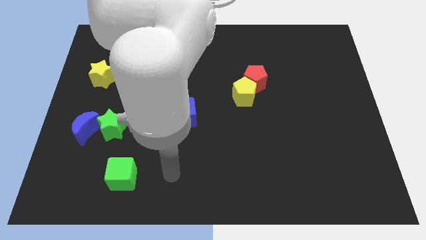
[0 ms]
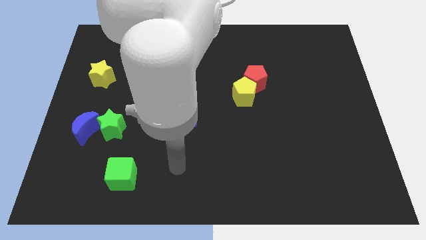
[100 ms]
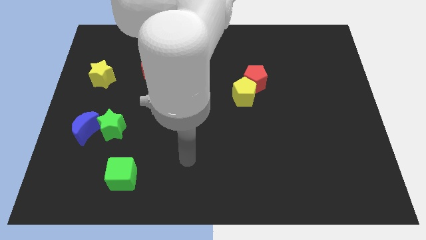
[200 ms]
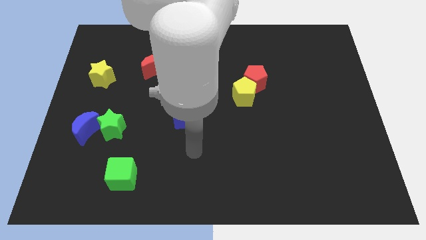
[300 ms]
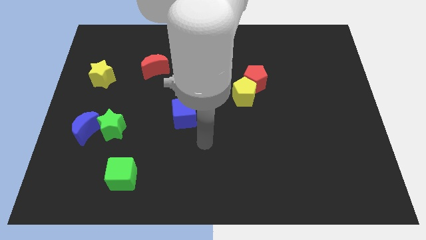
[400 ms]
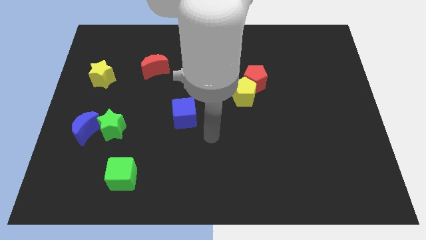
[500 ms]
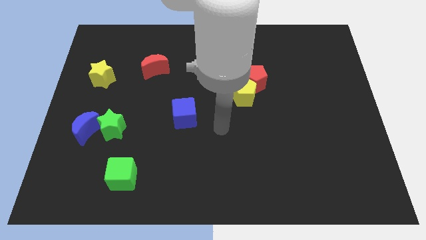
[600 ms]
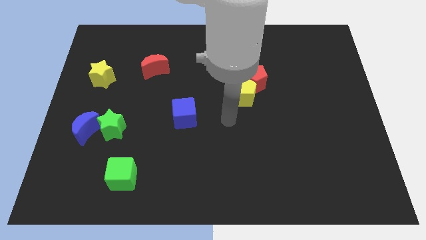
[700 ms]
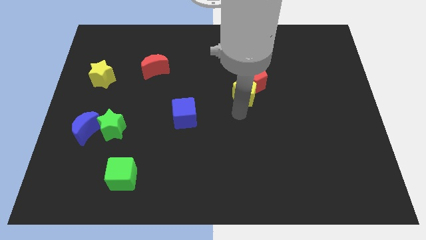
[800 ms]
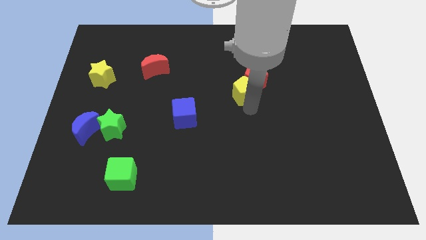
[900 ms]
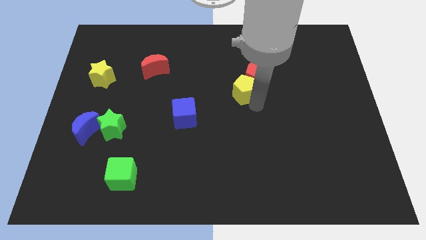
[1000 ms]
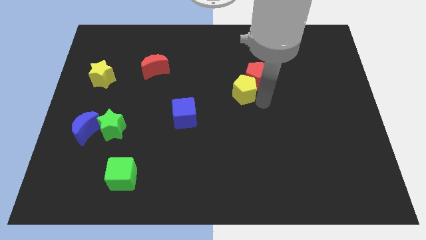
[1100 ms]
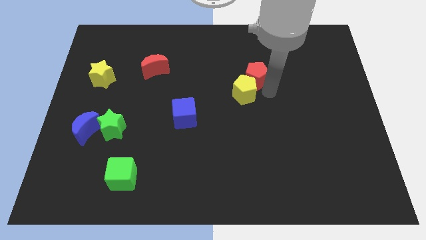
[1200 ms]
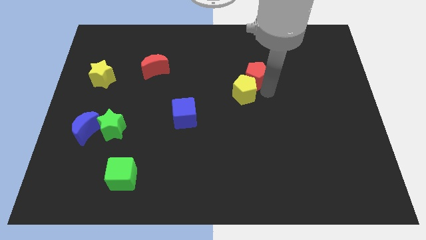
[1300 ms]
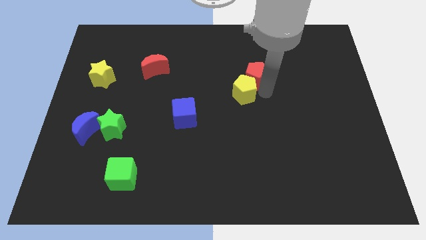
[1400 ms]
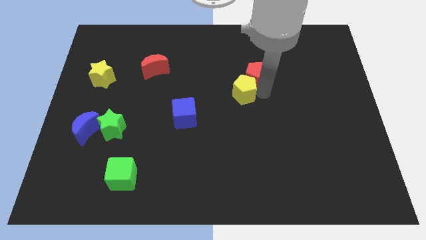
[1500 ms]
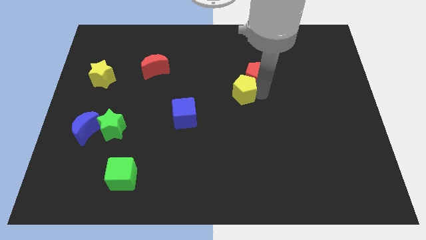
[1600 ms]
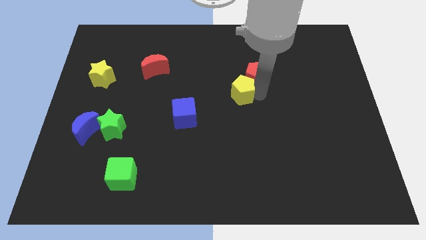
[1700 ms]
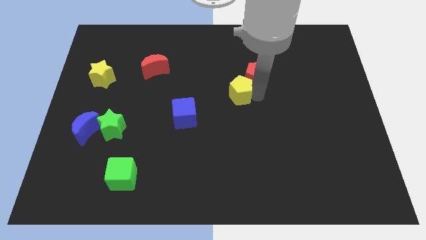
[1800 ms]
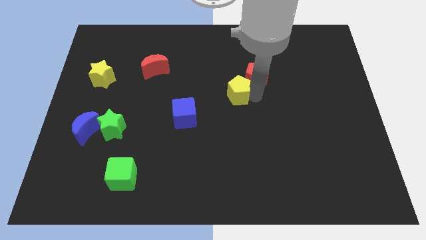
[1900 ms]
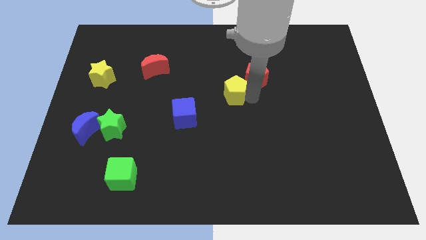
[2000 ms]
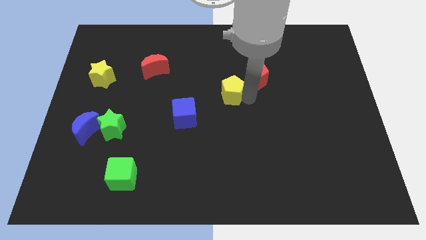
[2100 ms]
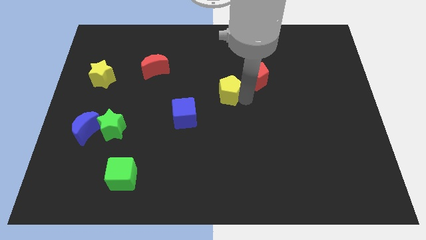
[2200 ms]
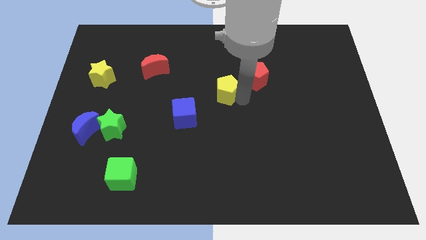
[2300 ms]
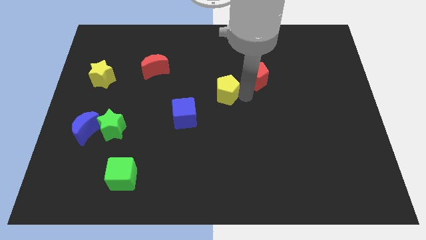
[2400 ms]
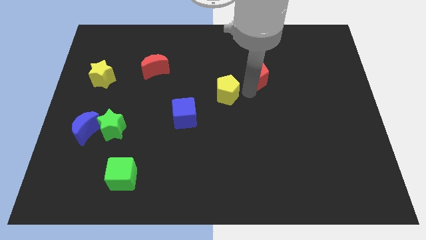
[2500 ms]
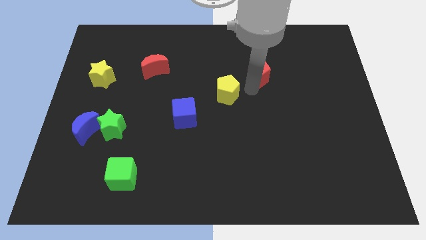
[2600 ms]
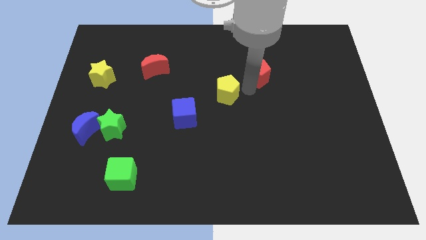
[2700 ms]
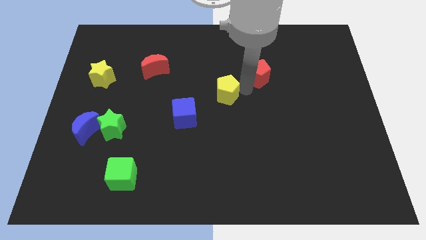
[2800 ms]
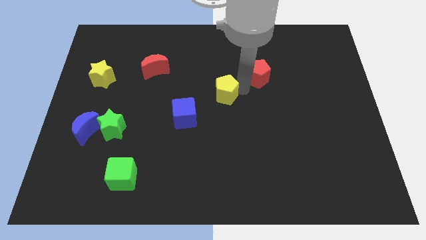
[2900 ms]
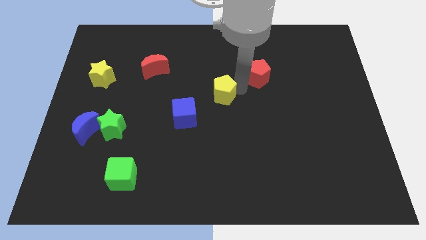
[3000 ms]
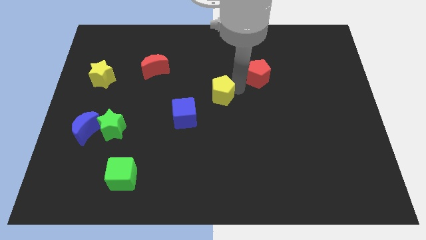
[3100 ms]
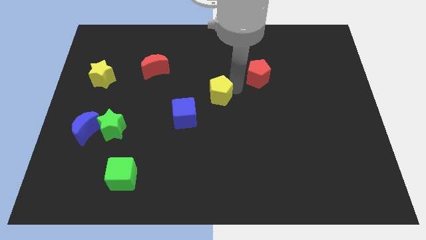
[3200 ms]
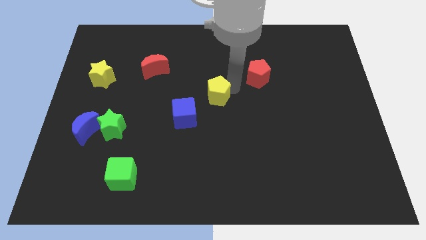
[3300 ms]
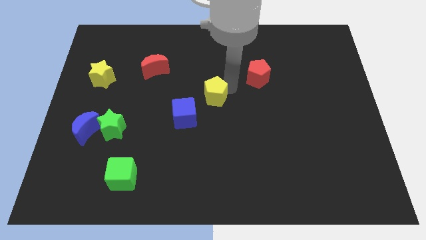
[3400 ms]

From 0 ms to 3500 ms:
push the yellow pentagon a little bit to the left

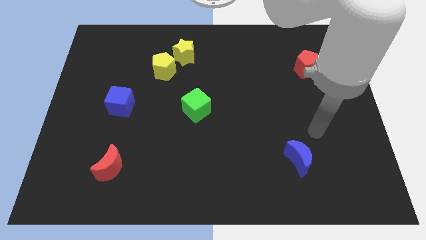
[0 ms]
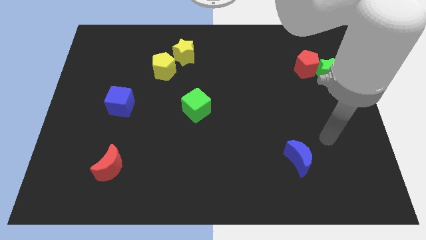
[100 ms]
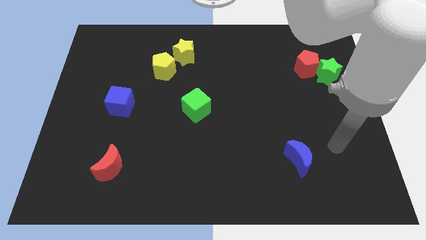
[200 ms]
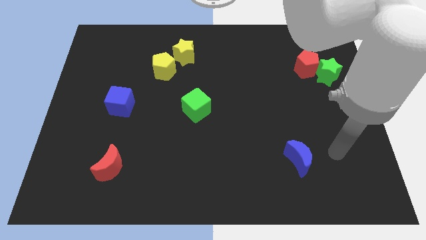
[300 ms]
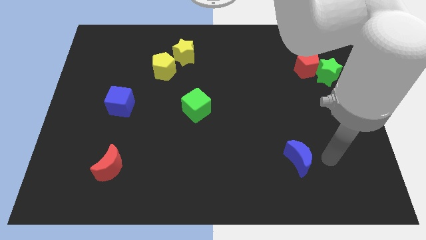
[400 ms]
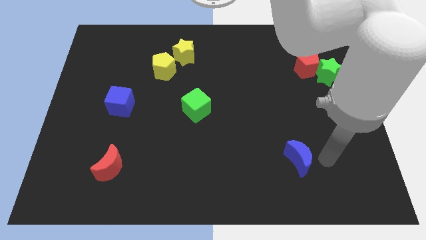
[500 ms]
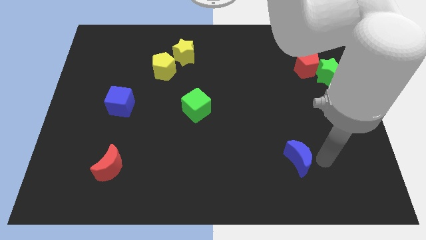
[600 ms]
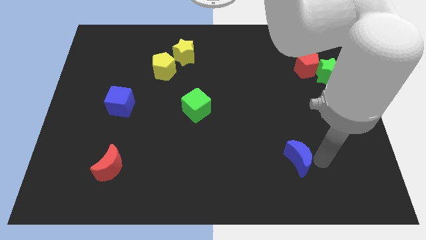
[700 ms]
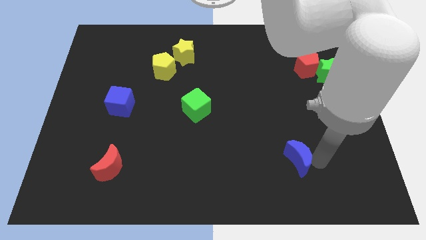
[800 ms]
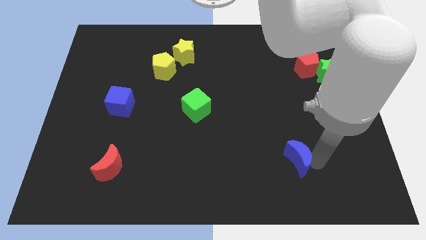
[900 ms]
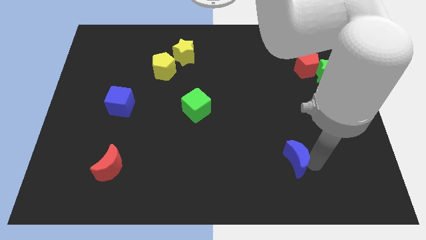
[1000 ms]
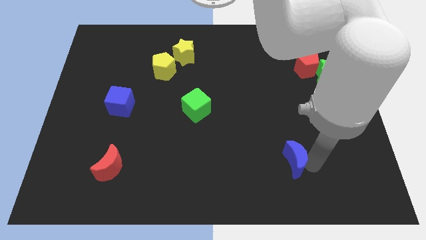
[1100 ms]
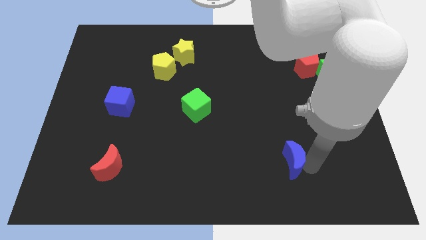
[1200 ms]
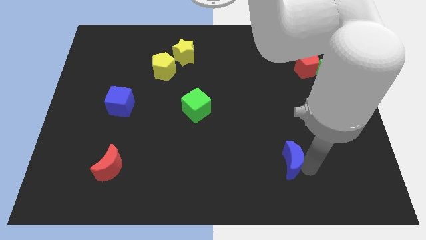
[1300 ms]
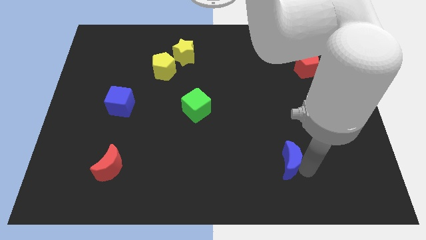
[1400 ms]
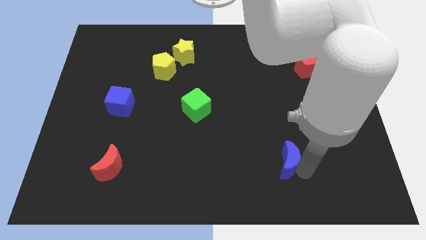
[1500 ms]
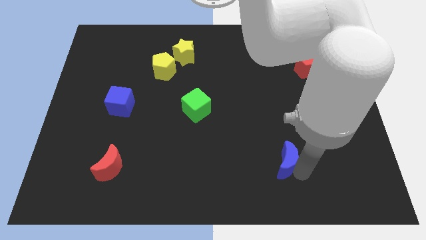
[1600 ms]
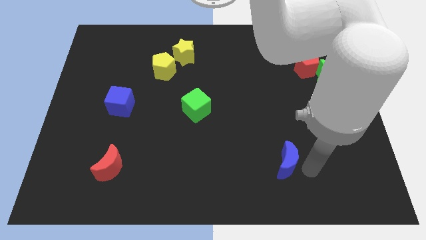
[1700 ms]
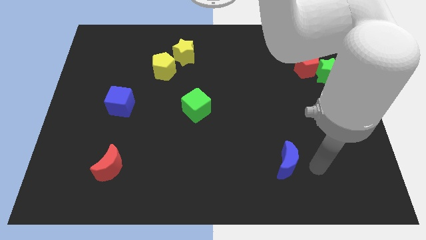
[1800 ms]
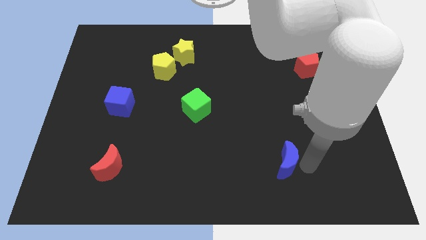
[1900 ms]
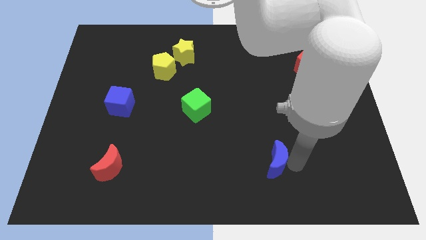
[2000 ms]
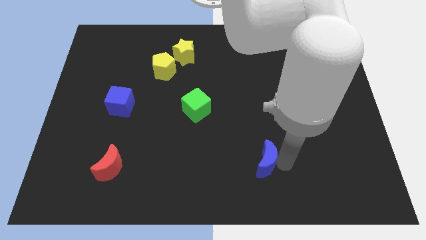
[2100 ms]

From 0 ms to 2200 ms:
move the blue moon left a little bit

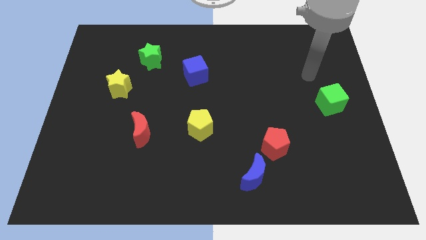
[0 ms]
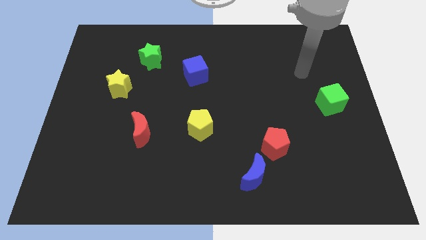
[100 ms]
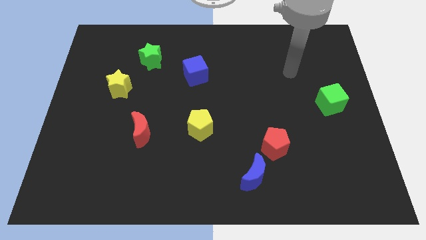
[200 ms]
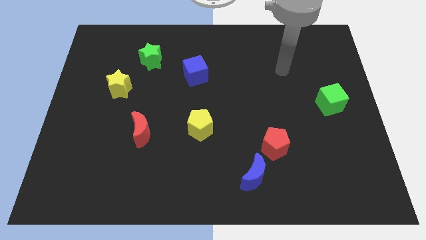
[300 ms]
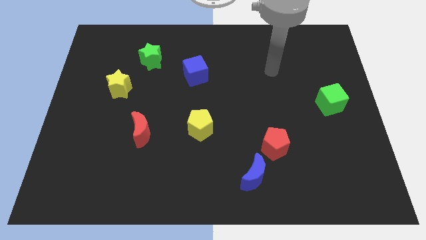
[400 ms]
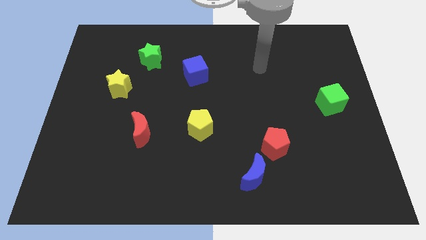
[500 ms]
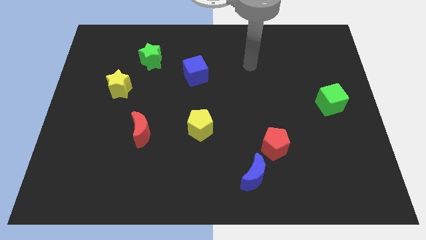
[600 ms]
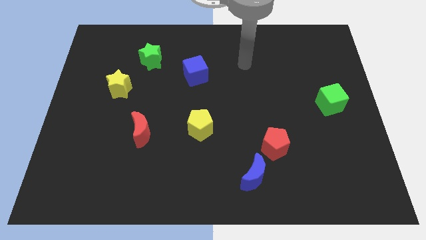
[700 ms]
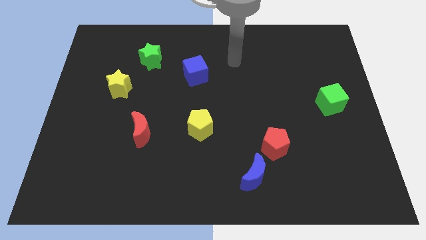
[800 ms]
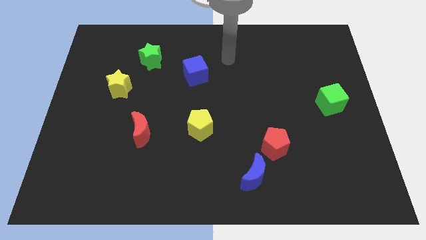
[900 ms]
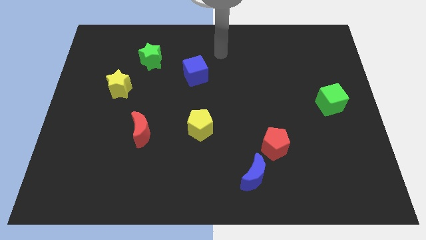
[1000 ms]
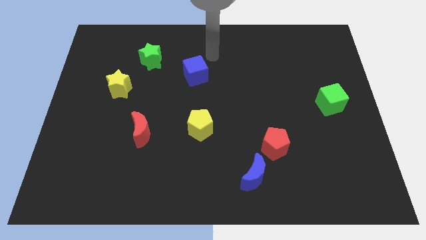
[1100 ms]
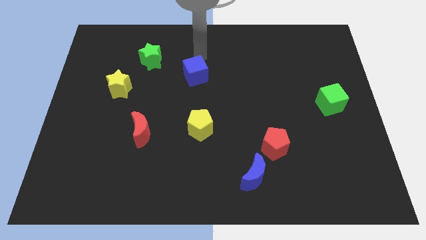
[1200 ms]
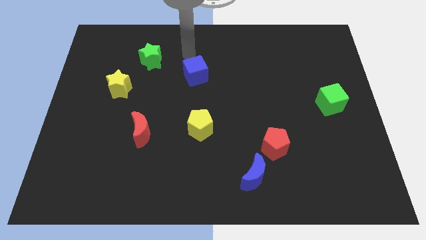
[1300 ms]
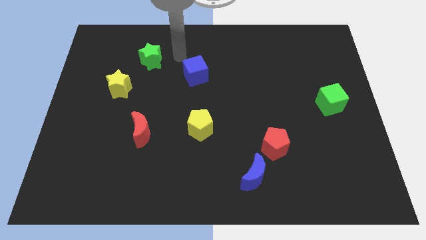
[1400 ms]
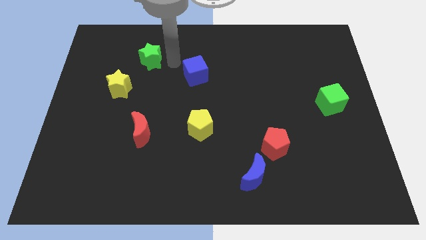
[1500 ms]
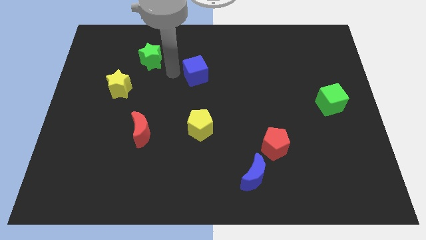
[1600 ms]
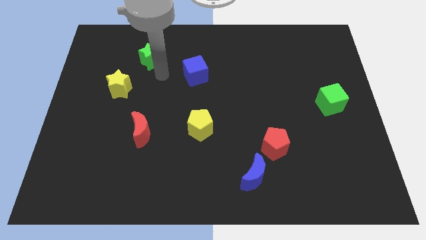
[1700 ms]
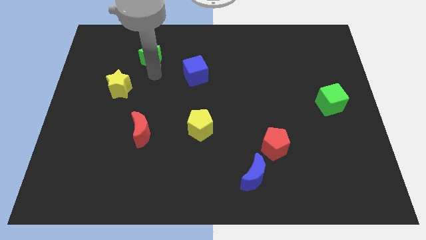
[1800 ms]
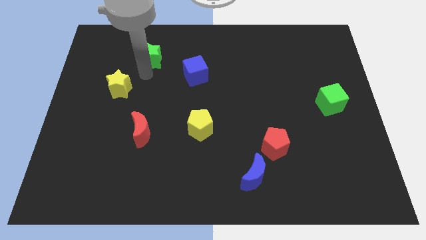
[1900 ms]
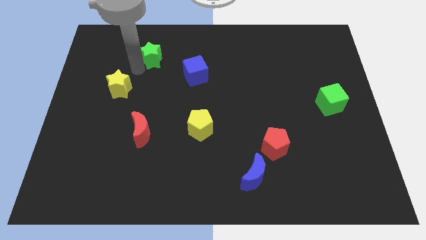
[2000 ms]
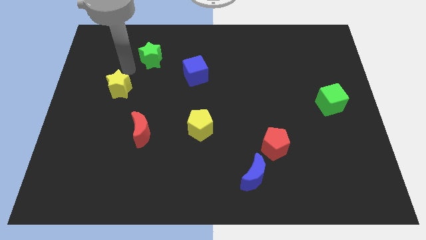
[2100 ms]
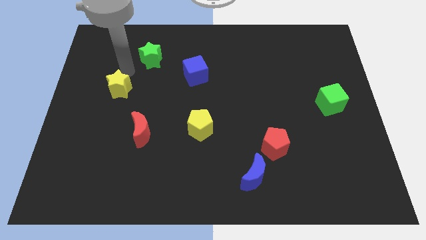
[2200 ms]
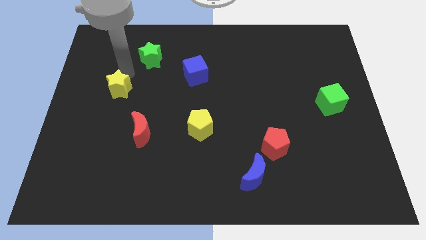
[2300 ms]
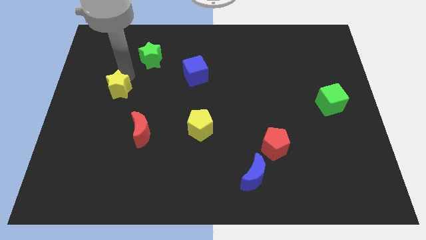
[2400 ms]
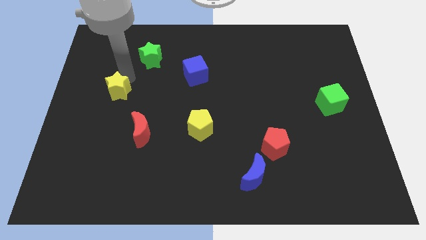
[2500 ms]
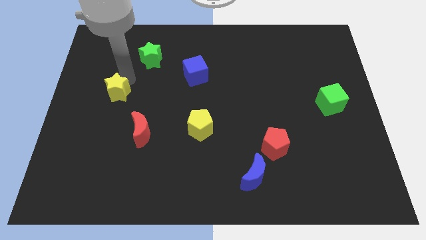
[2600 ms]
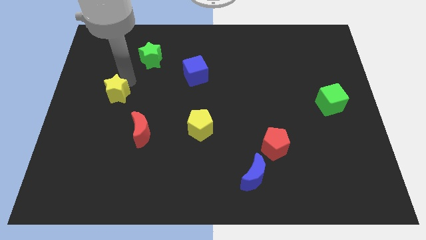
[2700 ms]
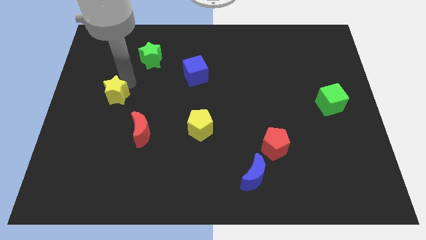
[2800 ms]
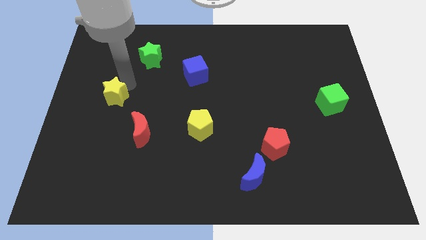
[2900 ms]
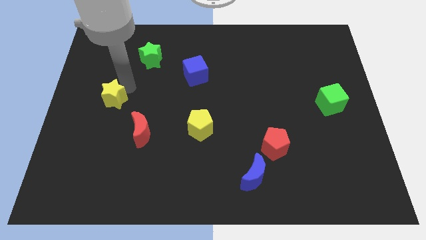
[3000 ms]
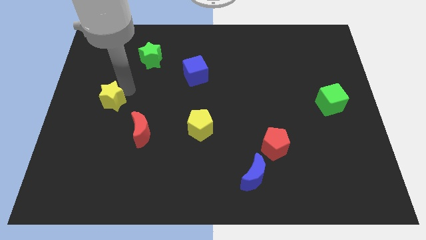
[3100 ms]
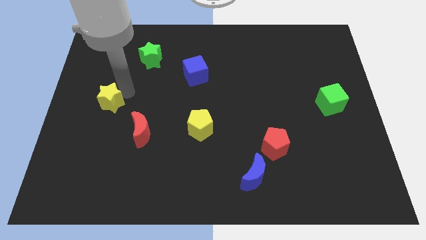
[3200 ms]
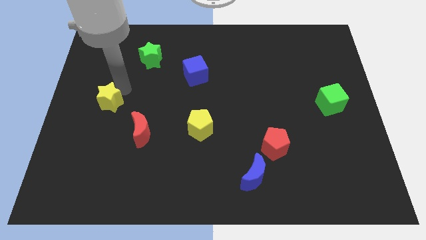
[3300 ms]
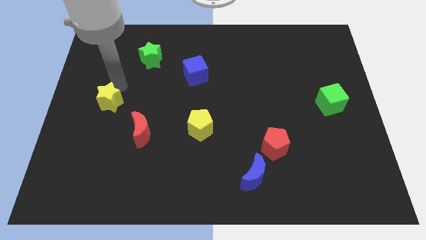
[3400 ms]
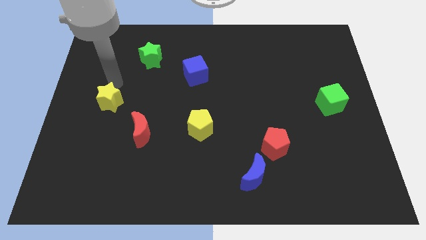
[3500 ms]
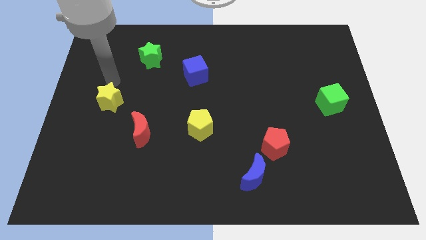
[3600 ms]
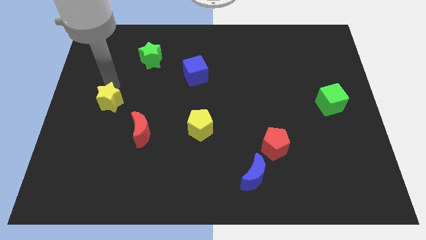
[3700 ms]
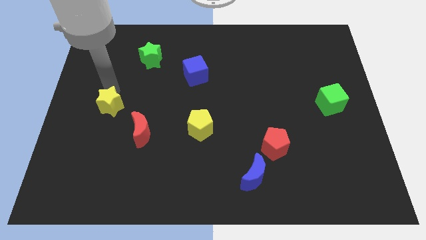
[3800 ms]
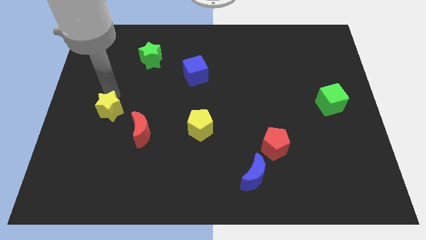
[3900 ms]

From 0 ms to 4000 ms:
slightly move the yellow star downwards
